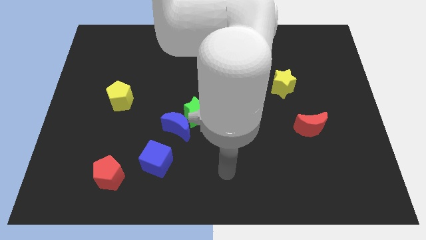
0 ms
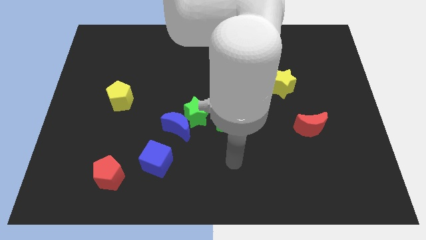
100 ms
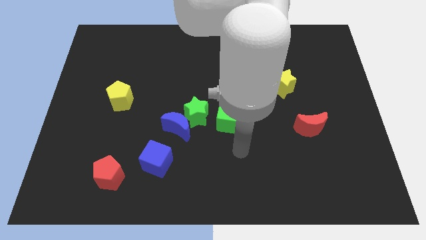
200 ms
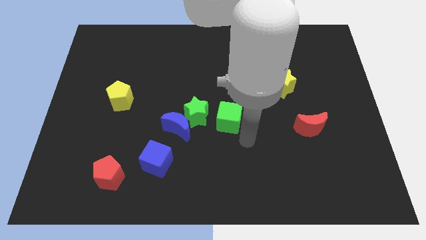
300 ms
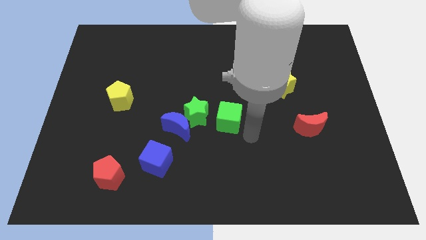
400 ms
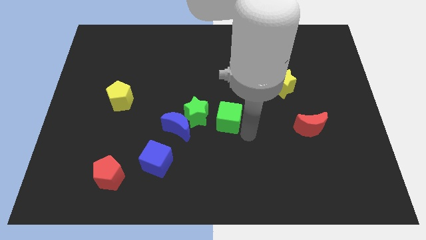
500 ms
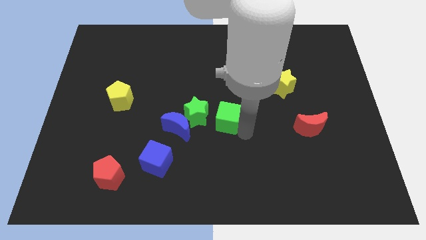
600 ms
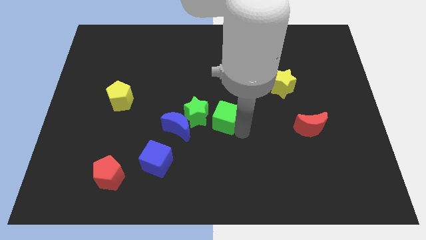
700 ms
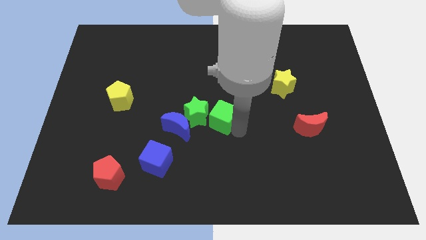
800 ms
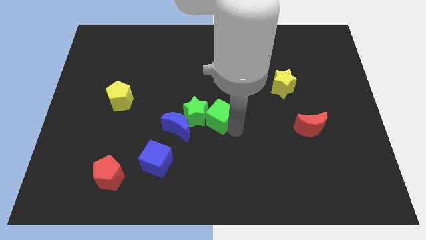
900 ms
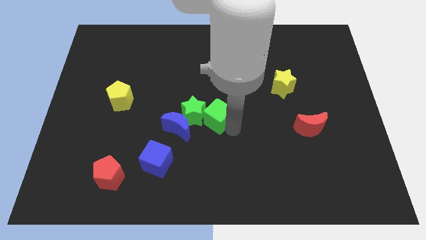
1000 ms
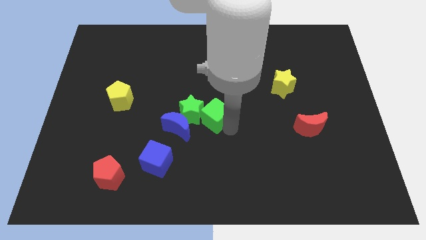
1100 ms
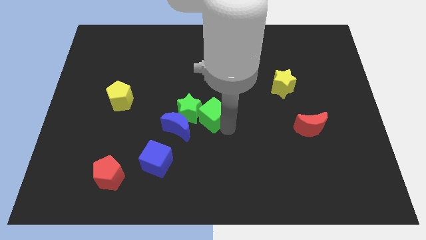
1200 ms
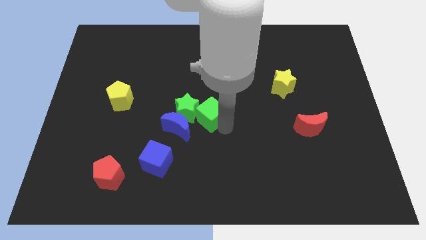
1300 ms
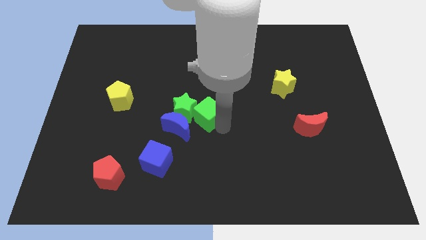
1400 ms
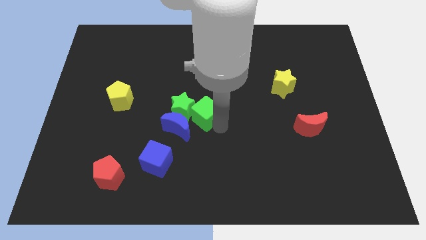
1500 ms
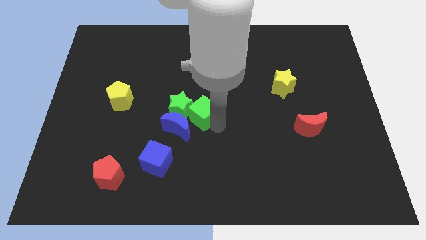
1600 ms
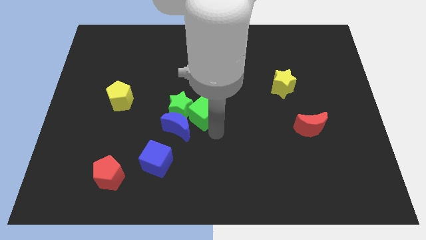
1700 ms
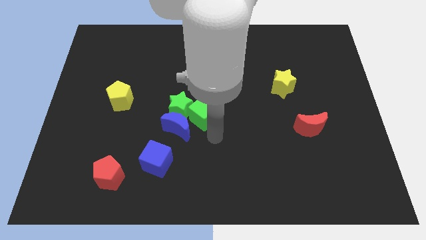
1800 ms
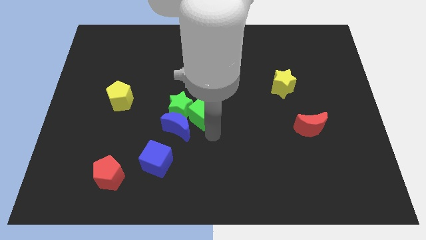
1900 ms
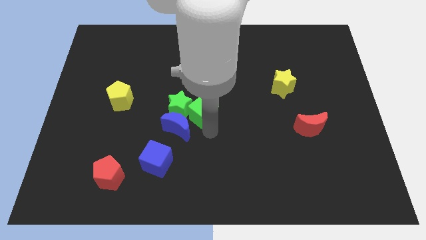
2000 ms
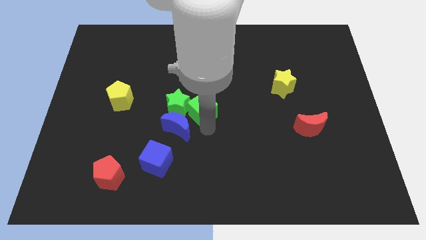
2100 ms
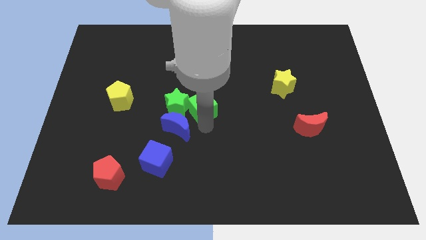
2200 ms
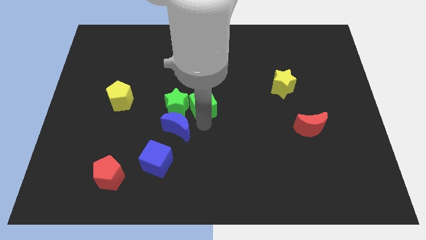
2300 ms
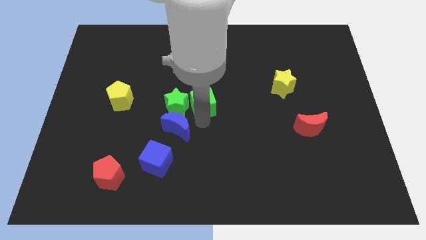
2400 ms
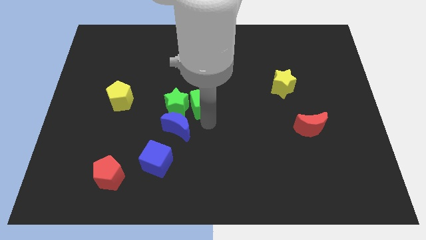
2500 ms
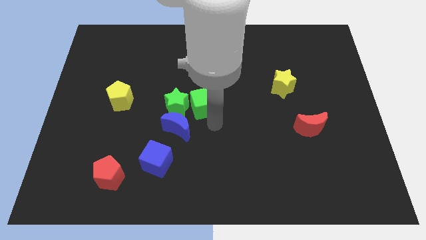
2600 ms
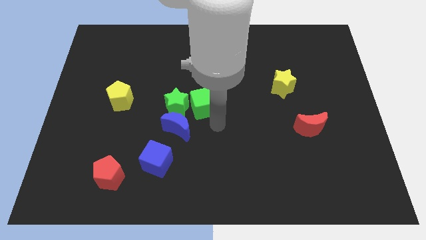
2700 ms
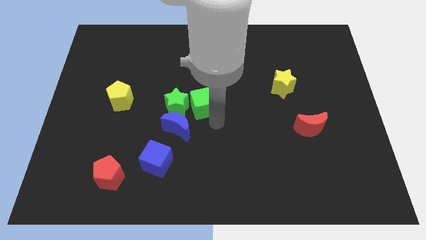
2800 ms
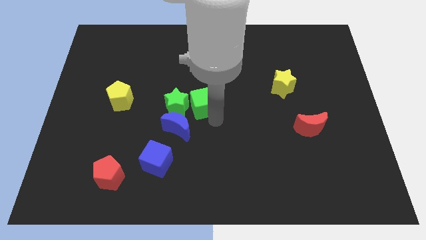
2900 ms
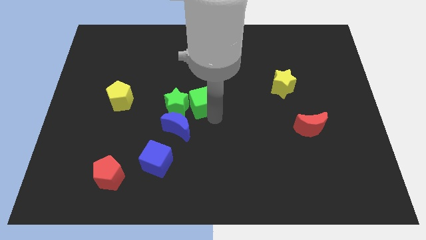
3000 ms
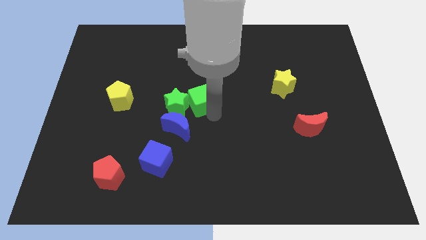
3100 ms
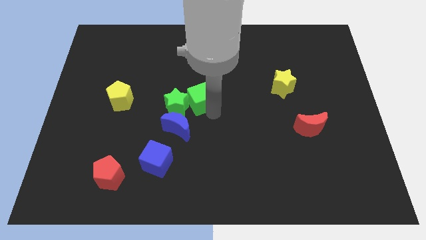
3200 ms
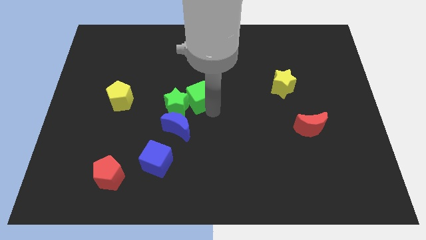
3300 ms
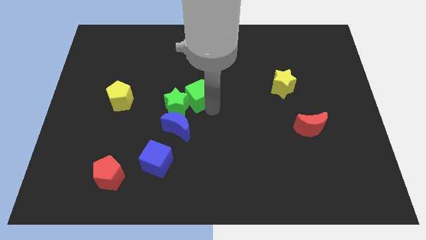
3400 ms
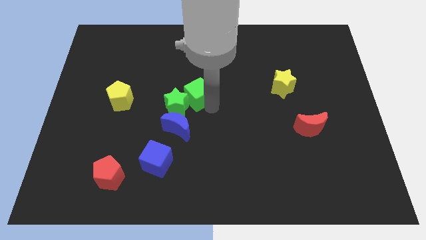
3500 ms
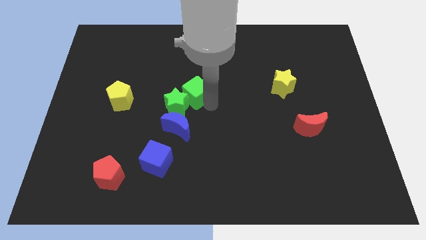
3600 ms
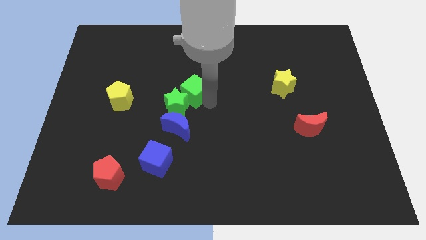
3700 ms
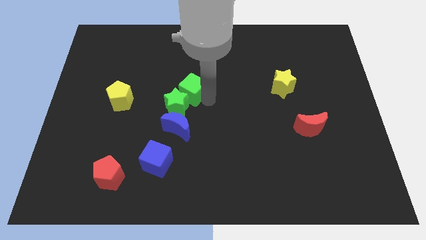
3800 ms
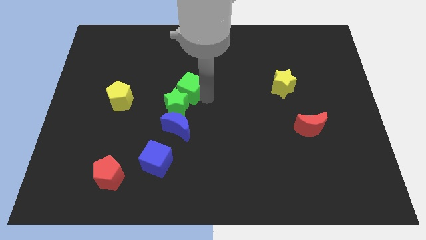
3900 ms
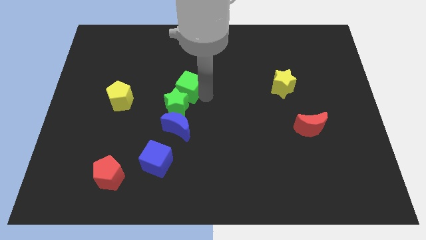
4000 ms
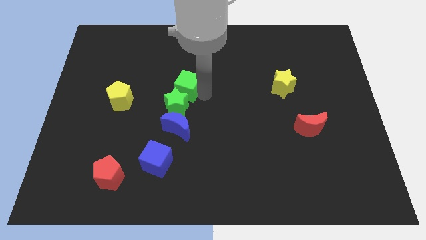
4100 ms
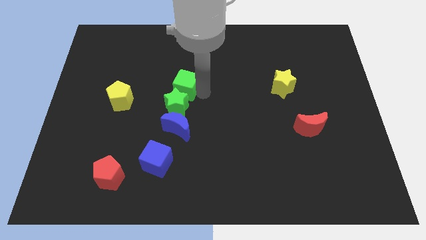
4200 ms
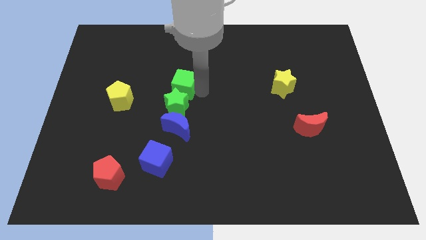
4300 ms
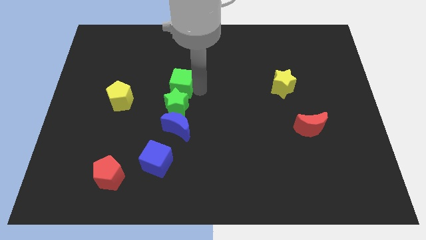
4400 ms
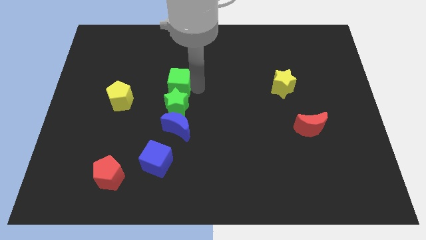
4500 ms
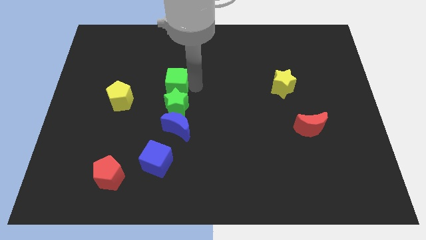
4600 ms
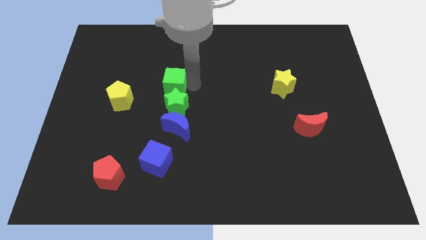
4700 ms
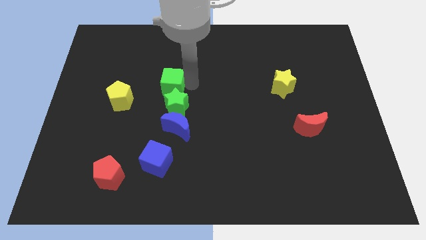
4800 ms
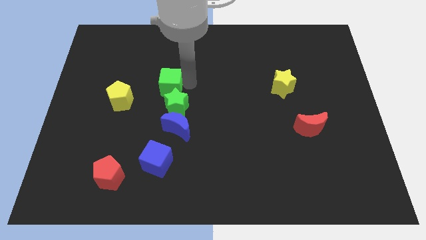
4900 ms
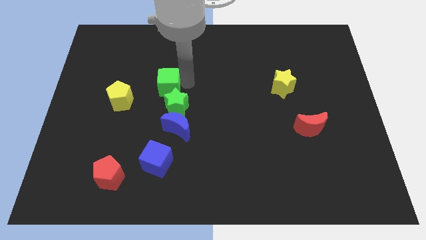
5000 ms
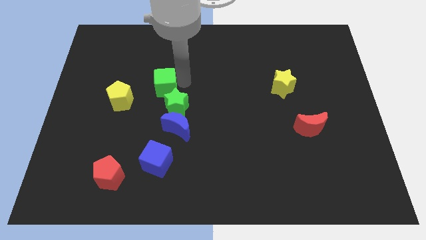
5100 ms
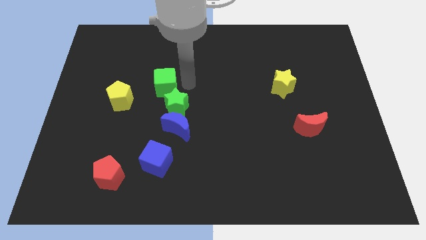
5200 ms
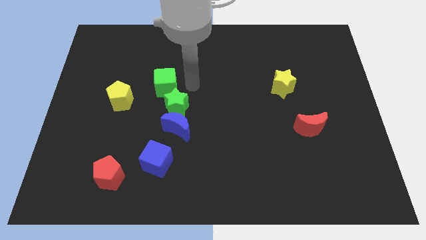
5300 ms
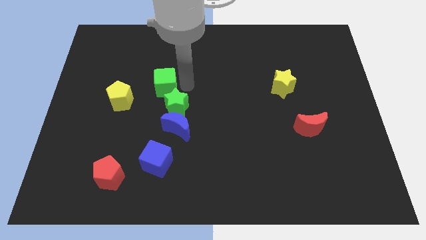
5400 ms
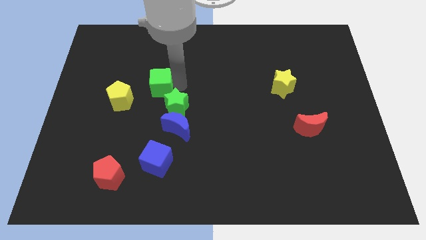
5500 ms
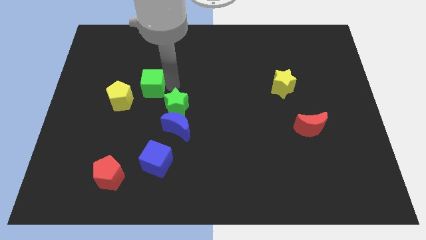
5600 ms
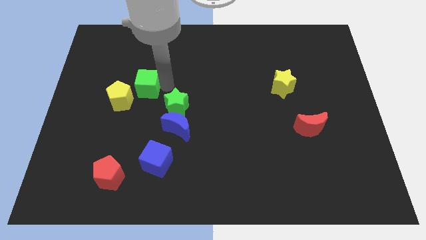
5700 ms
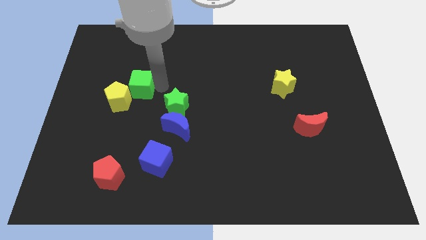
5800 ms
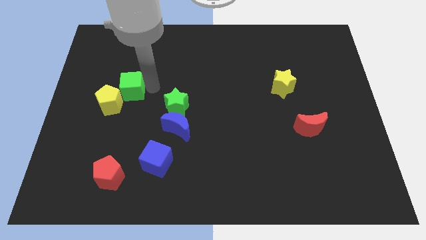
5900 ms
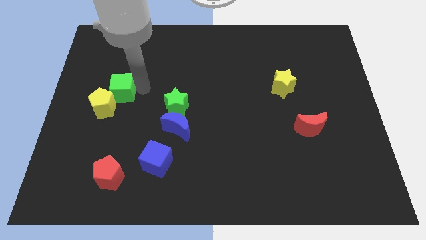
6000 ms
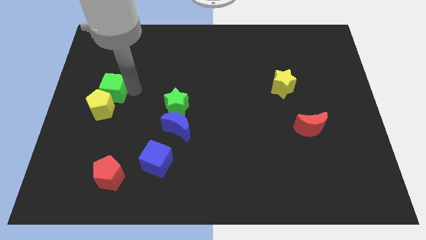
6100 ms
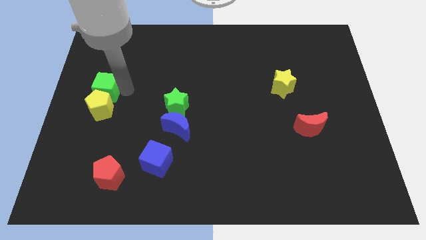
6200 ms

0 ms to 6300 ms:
move the green cube to the top left side of the yellow pentagon

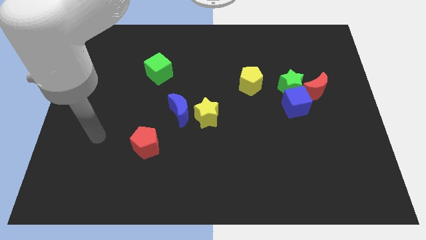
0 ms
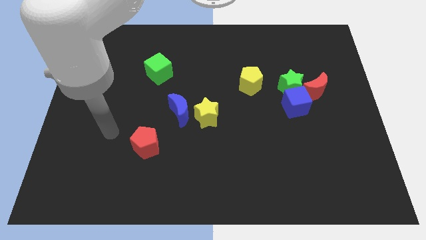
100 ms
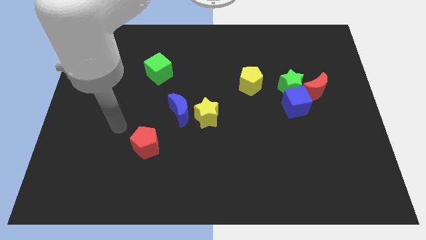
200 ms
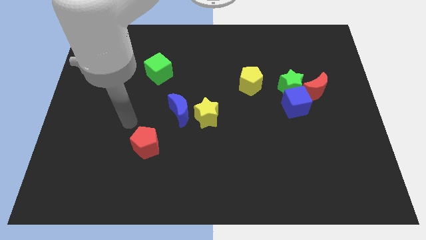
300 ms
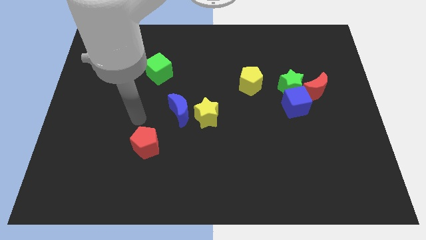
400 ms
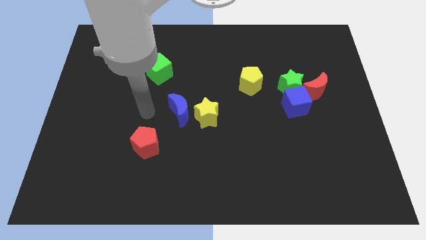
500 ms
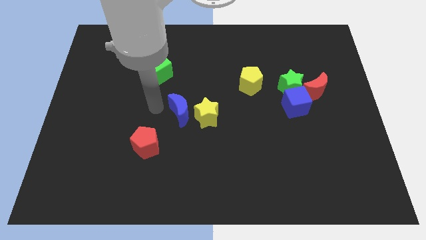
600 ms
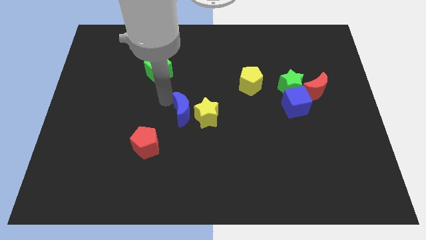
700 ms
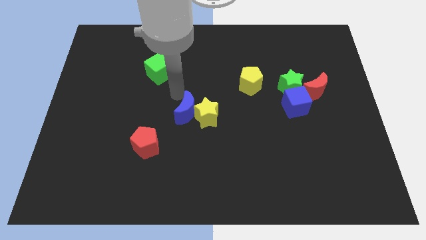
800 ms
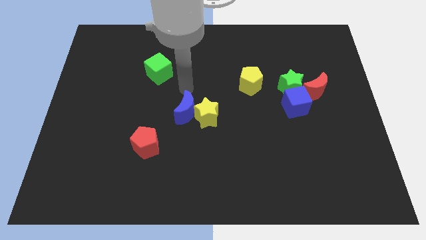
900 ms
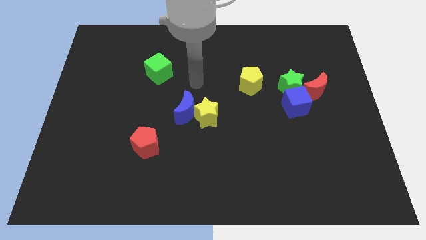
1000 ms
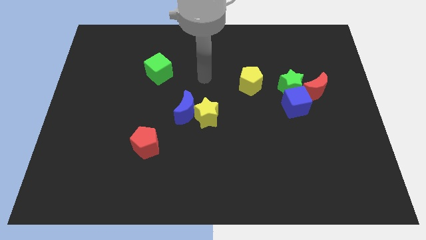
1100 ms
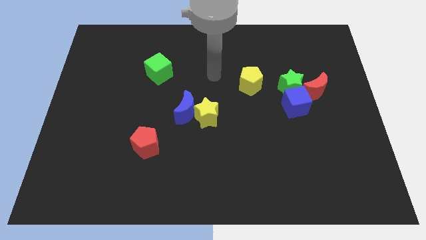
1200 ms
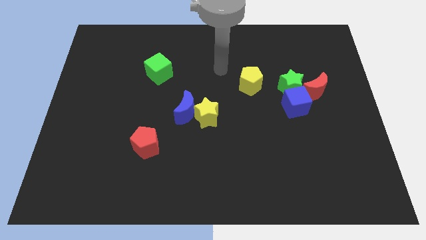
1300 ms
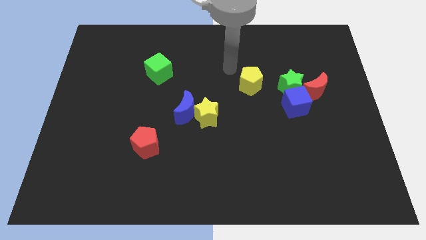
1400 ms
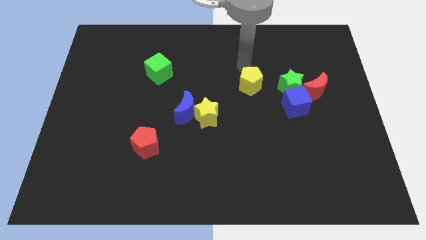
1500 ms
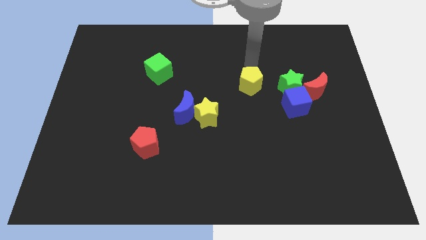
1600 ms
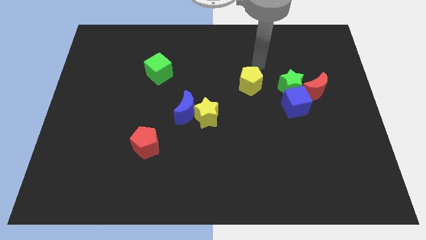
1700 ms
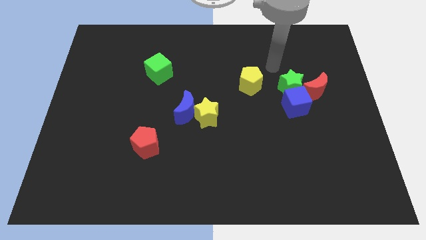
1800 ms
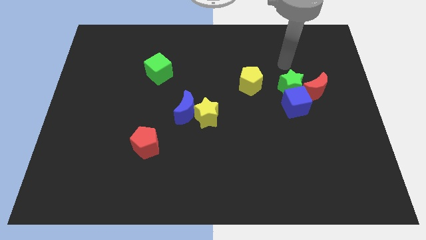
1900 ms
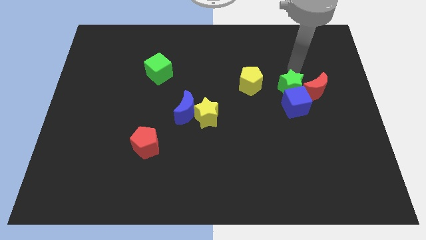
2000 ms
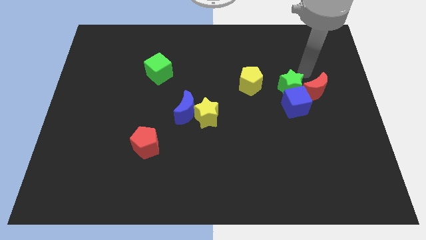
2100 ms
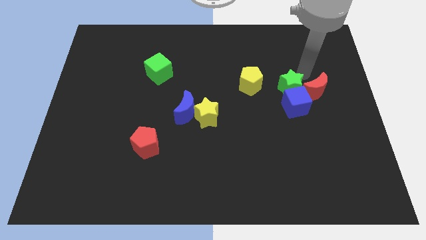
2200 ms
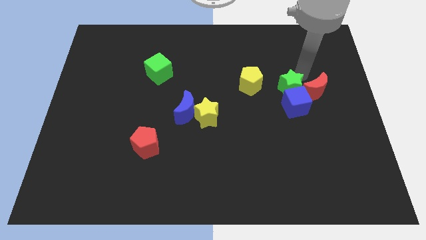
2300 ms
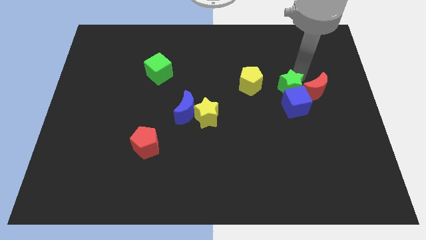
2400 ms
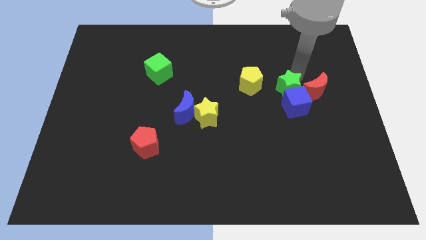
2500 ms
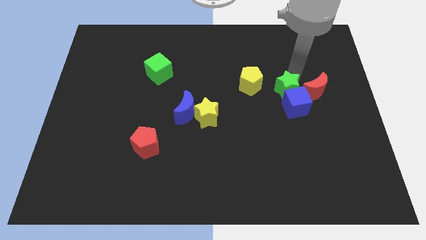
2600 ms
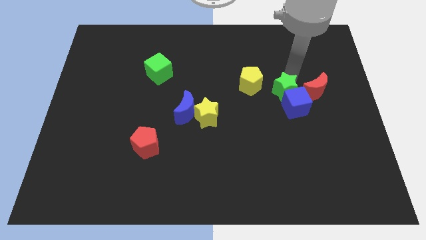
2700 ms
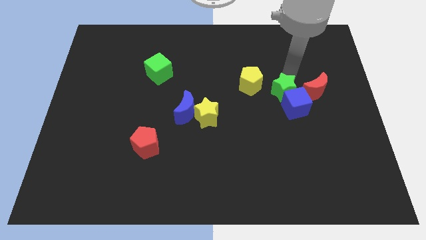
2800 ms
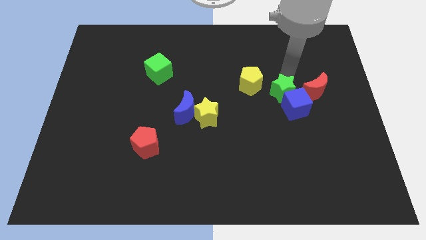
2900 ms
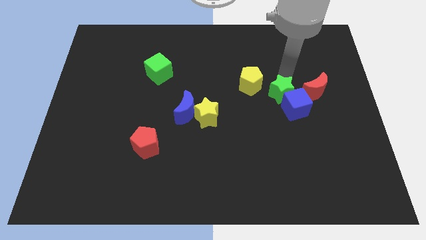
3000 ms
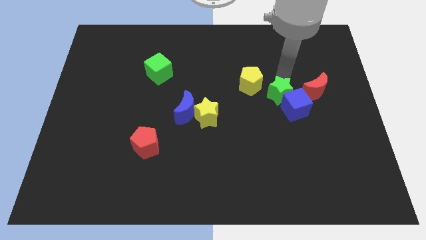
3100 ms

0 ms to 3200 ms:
move the green star to the left of the blue cube
